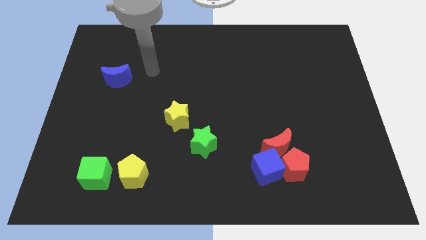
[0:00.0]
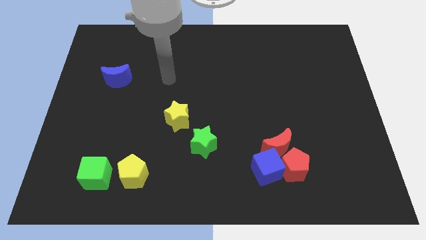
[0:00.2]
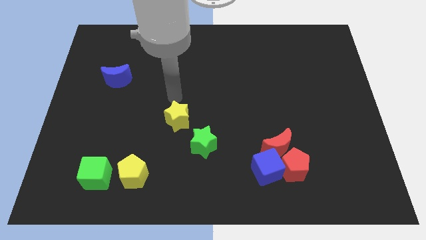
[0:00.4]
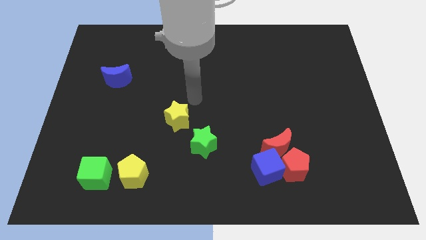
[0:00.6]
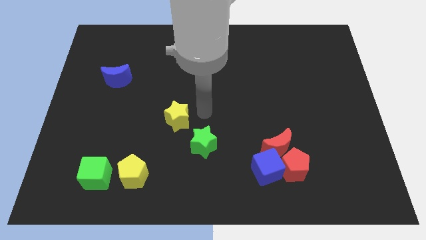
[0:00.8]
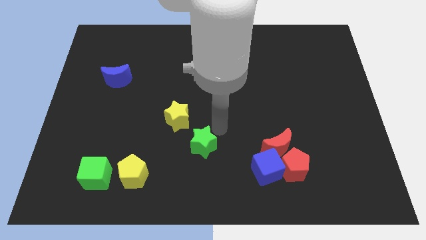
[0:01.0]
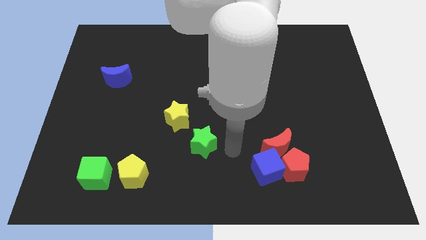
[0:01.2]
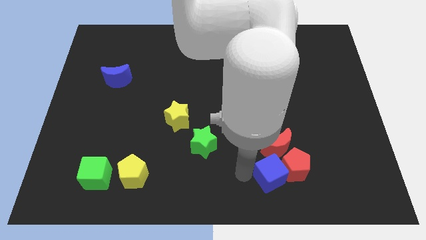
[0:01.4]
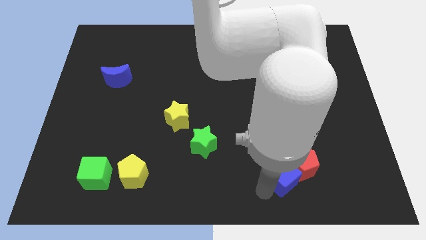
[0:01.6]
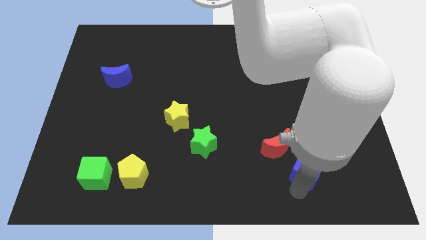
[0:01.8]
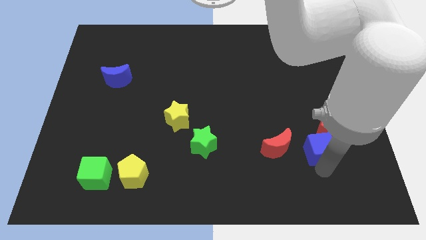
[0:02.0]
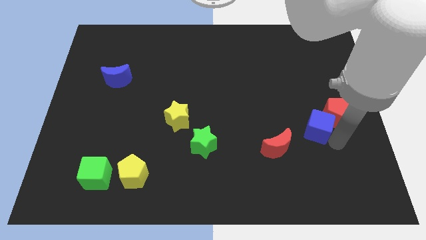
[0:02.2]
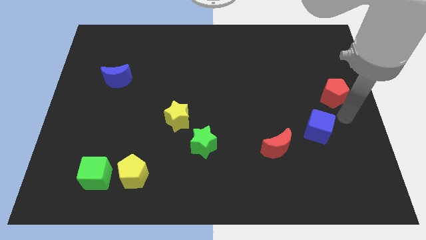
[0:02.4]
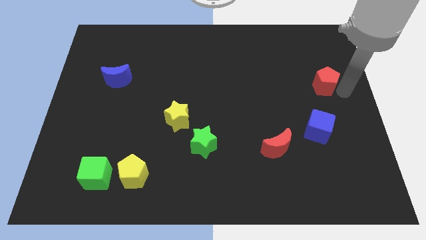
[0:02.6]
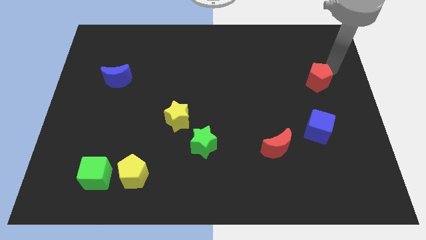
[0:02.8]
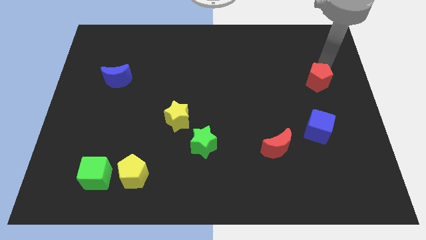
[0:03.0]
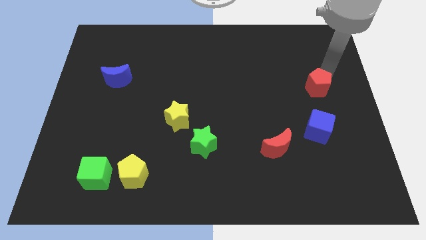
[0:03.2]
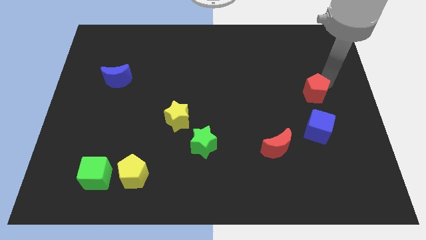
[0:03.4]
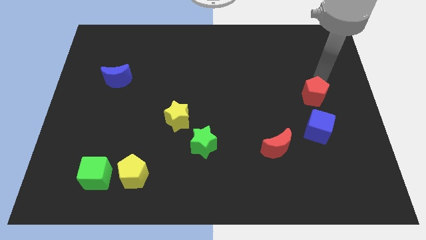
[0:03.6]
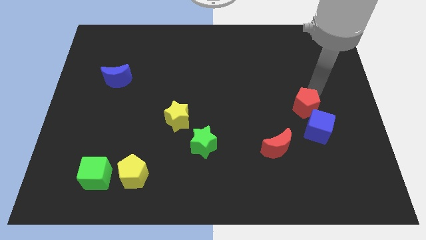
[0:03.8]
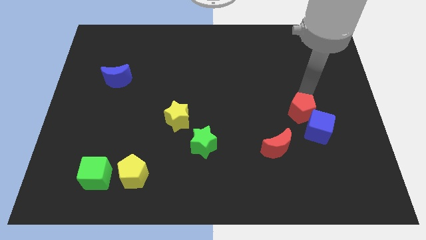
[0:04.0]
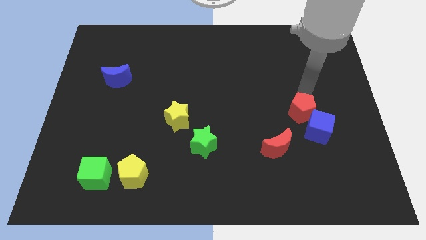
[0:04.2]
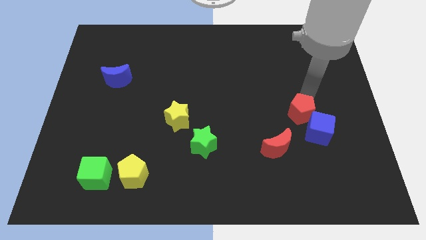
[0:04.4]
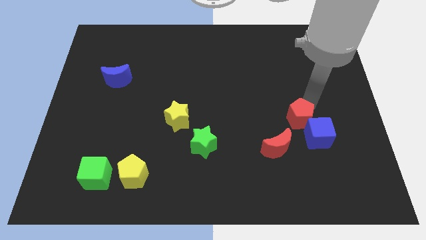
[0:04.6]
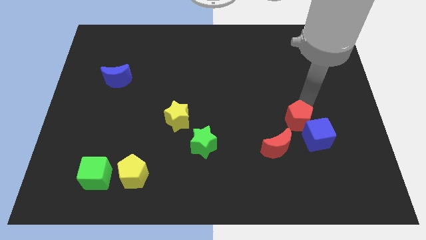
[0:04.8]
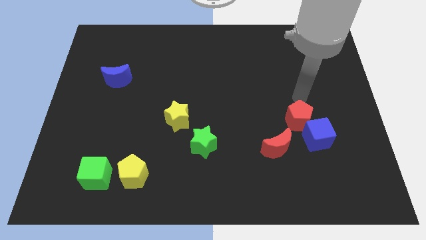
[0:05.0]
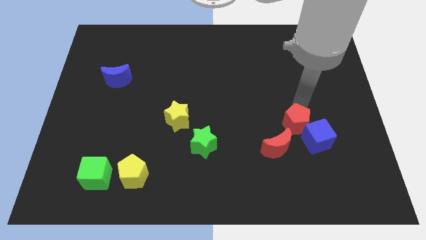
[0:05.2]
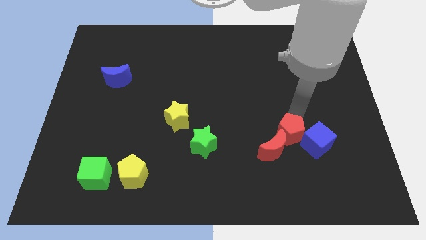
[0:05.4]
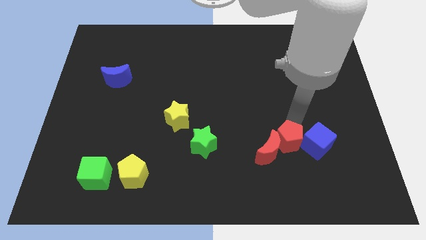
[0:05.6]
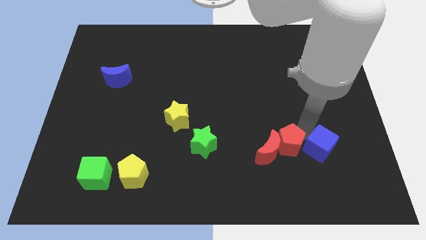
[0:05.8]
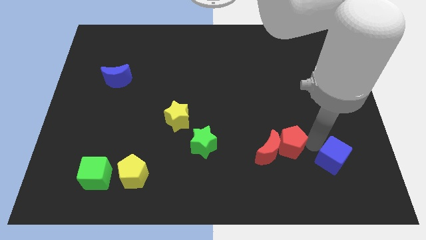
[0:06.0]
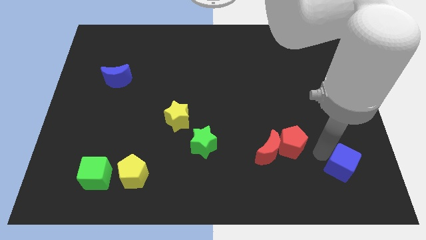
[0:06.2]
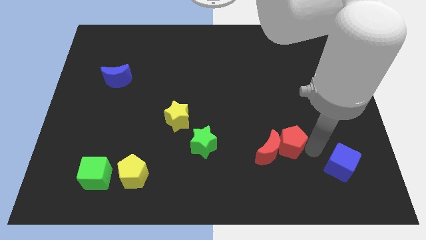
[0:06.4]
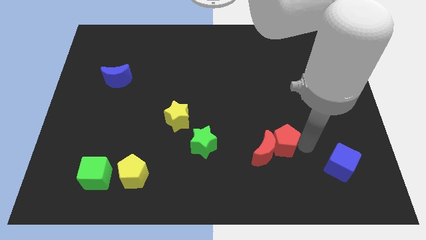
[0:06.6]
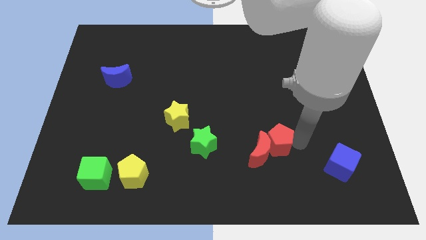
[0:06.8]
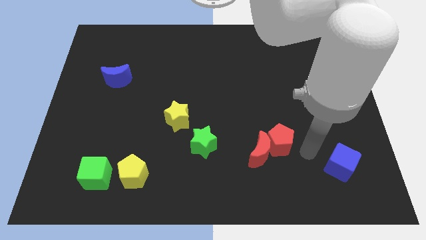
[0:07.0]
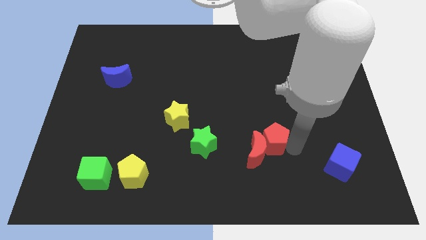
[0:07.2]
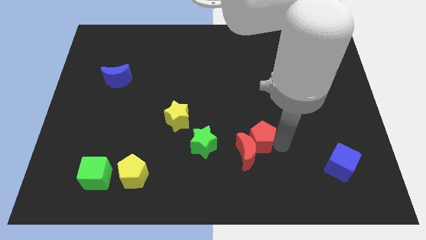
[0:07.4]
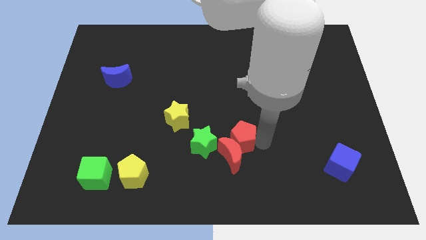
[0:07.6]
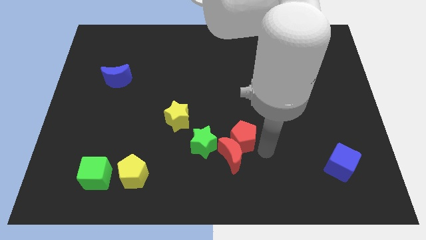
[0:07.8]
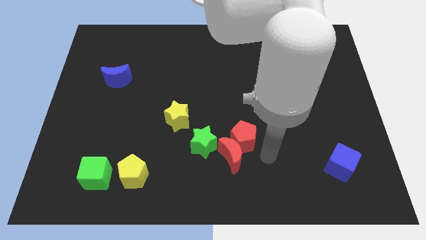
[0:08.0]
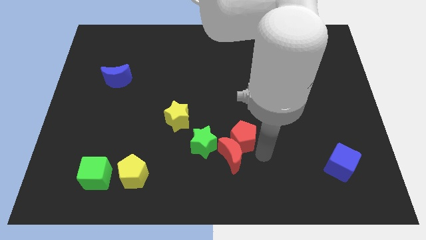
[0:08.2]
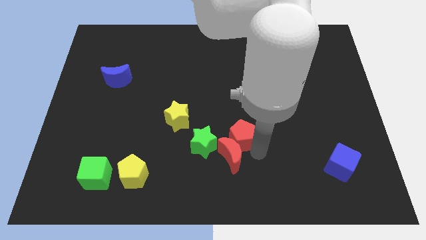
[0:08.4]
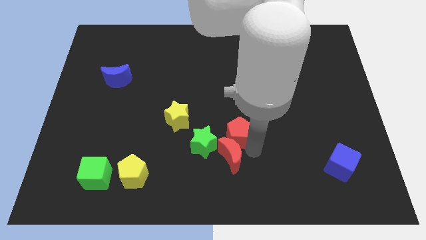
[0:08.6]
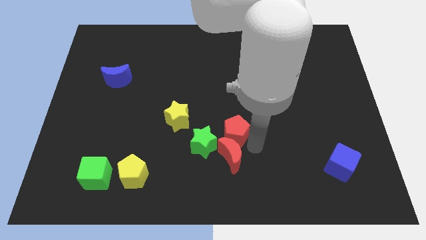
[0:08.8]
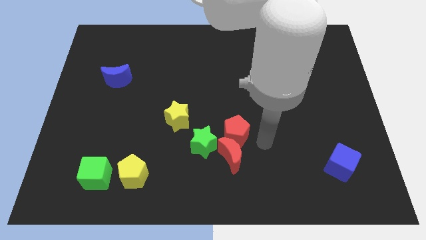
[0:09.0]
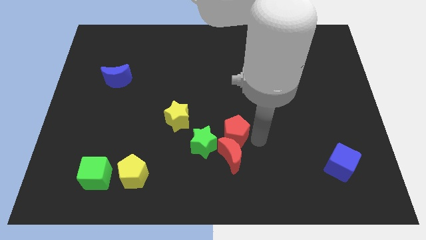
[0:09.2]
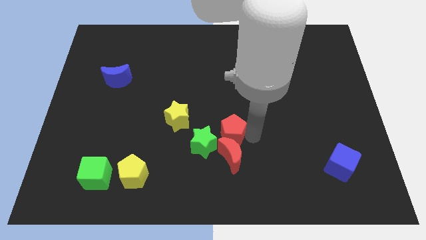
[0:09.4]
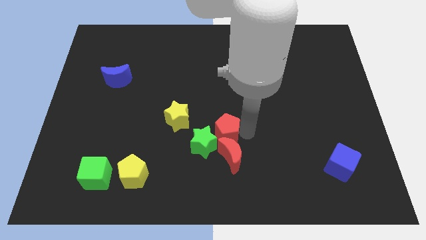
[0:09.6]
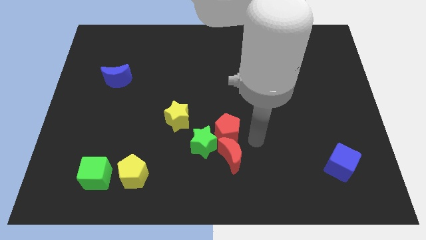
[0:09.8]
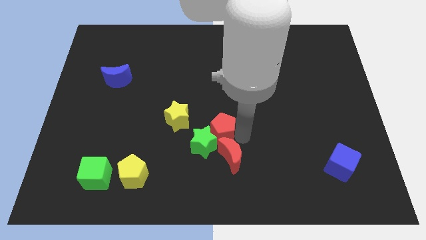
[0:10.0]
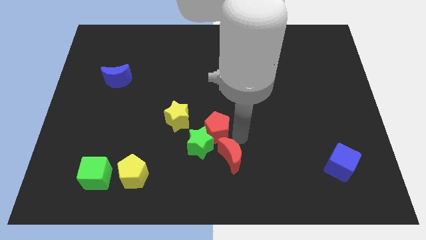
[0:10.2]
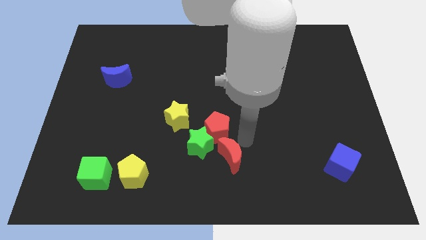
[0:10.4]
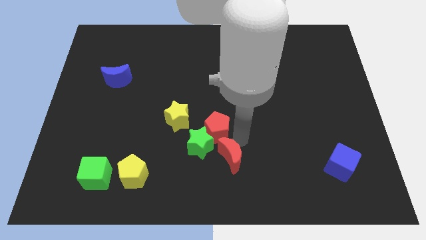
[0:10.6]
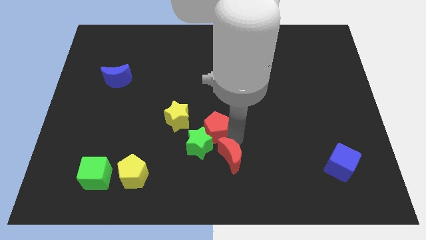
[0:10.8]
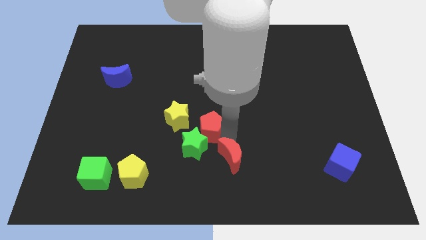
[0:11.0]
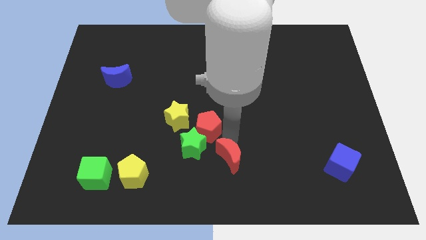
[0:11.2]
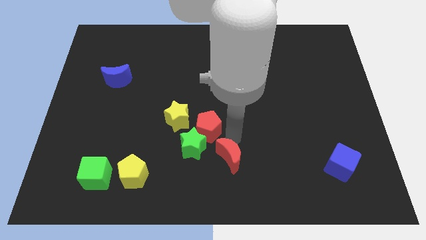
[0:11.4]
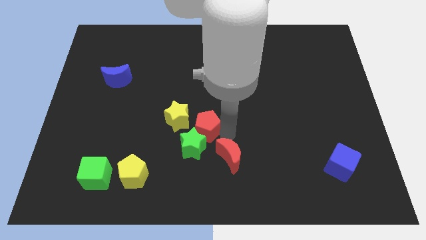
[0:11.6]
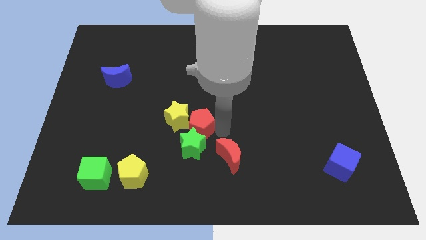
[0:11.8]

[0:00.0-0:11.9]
move the red pentagon next to the yellow star

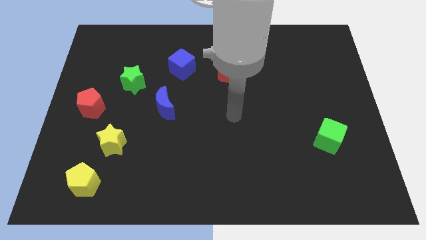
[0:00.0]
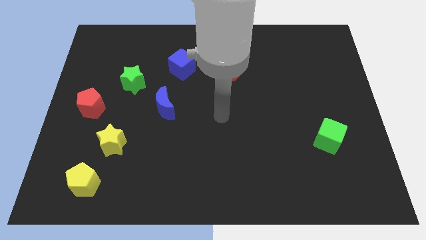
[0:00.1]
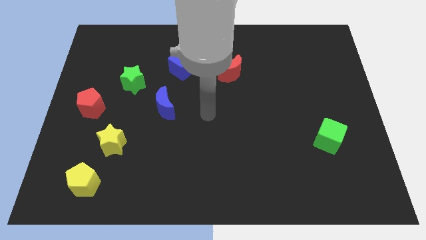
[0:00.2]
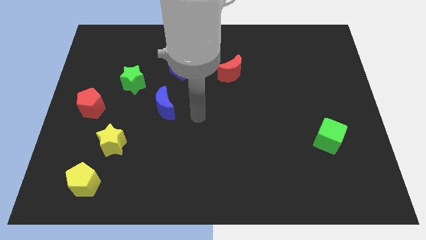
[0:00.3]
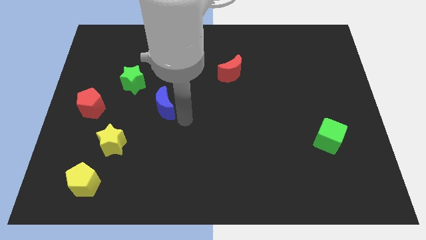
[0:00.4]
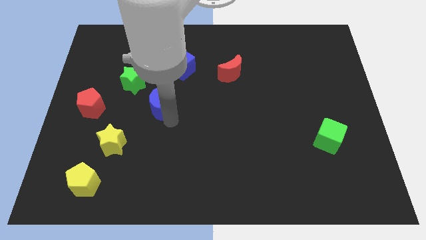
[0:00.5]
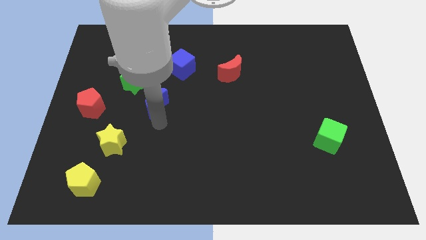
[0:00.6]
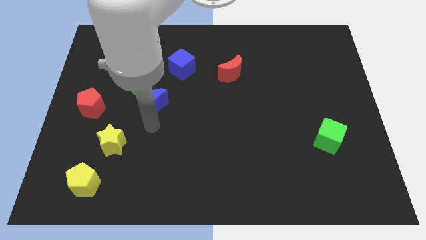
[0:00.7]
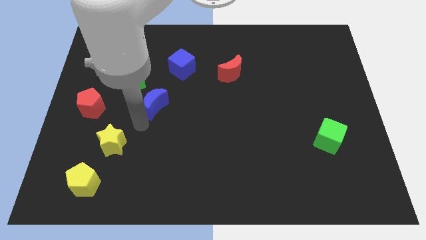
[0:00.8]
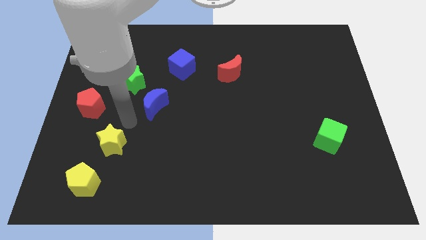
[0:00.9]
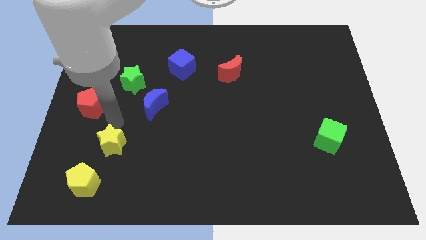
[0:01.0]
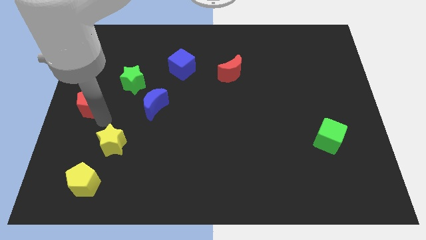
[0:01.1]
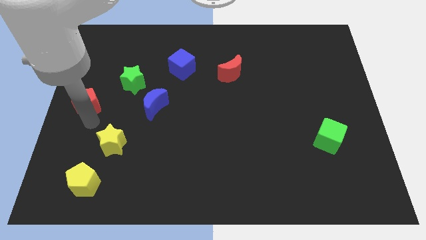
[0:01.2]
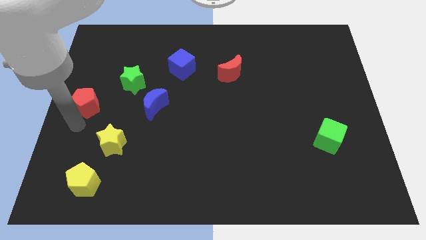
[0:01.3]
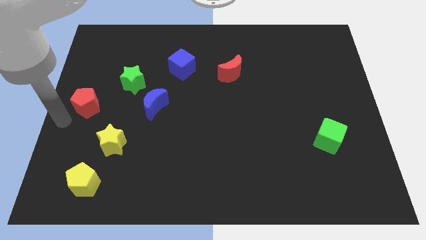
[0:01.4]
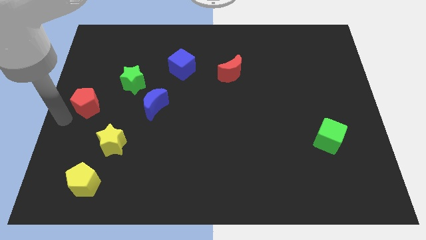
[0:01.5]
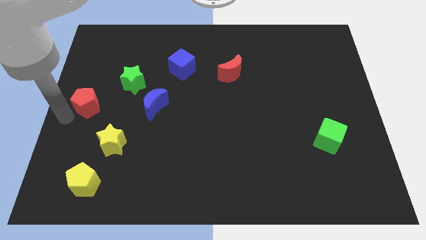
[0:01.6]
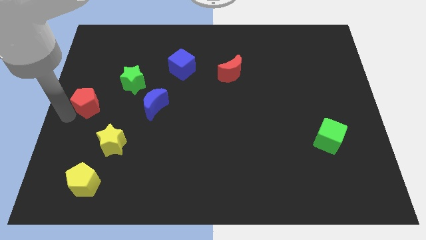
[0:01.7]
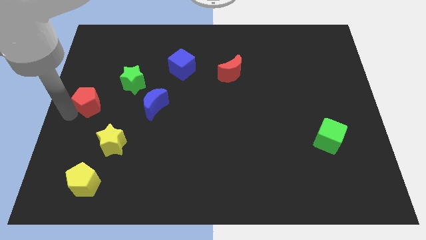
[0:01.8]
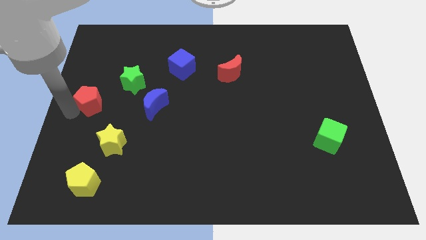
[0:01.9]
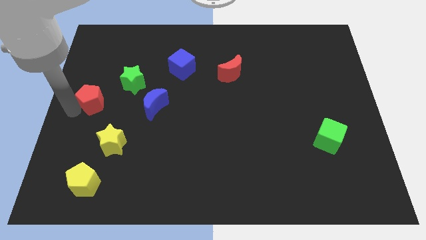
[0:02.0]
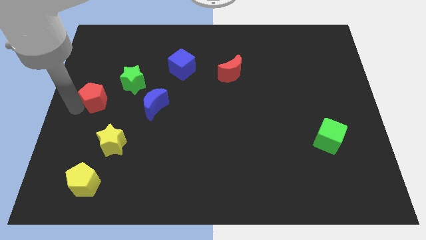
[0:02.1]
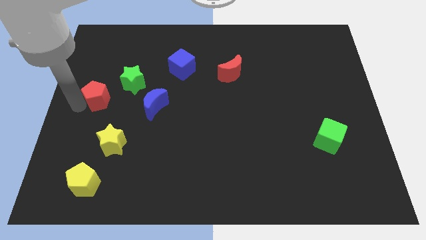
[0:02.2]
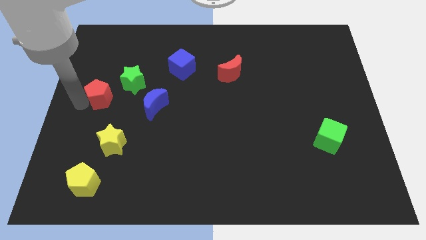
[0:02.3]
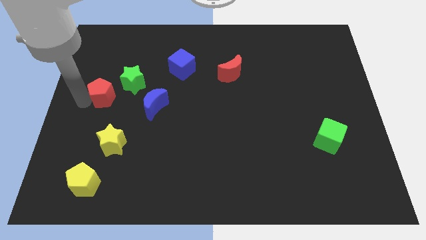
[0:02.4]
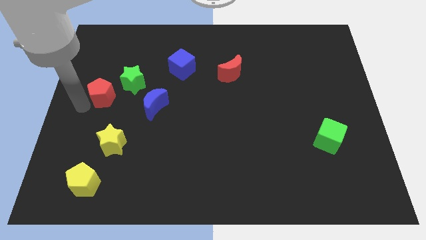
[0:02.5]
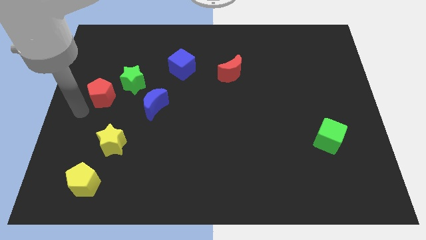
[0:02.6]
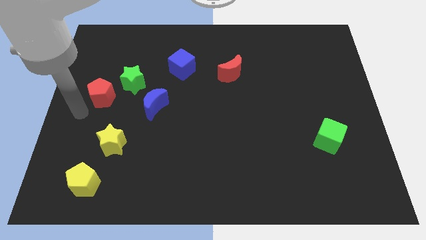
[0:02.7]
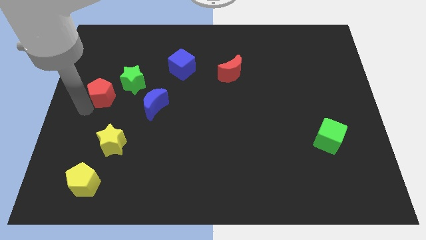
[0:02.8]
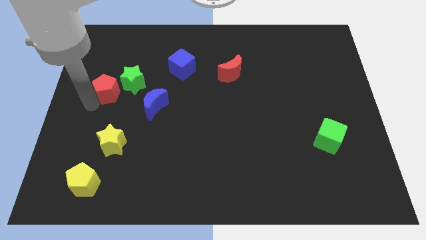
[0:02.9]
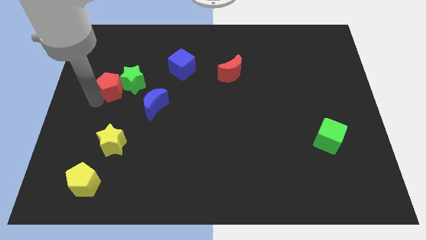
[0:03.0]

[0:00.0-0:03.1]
slide the red pentagon close to the green star
